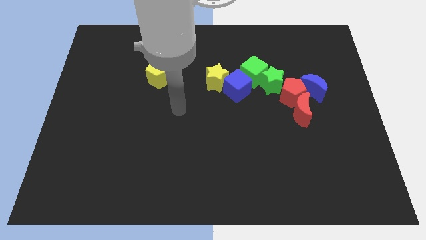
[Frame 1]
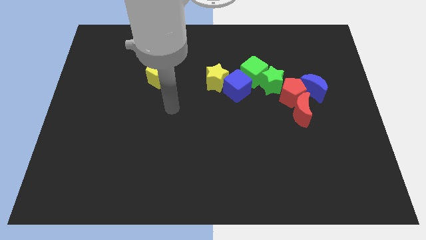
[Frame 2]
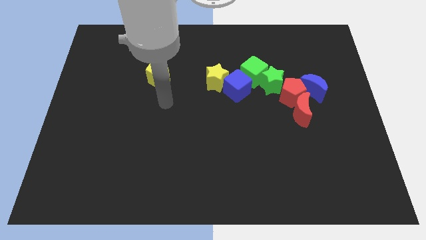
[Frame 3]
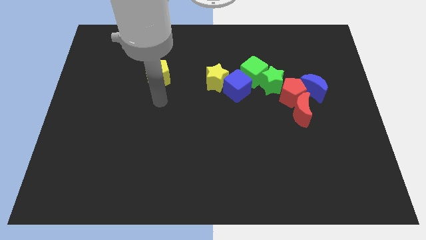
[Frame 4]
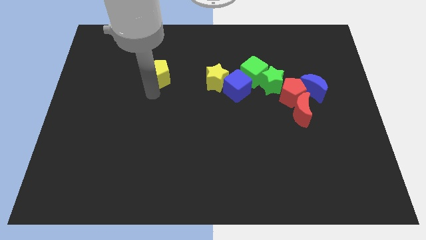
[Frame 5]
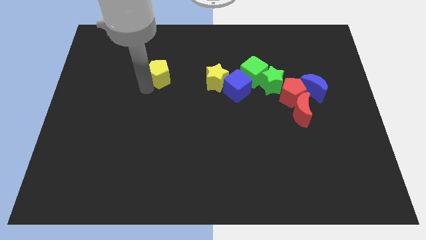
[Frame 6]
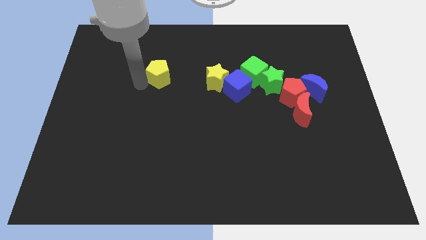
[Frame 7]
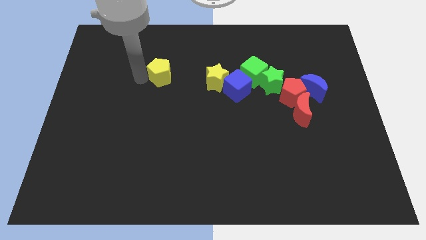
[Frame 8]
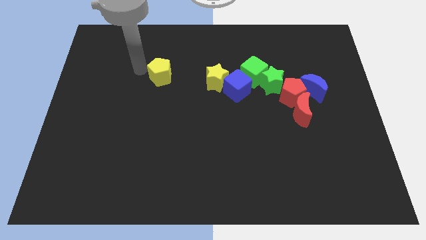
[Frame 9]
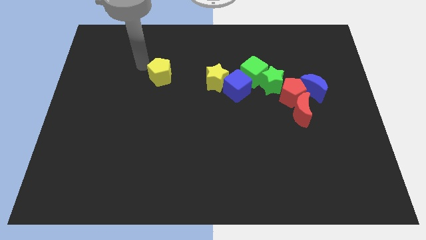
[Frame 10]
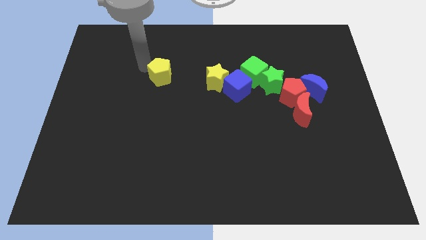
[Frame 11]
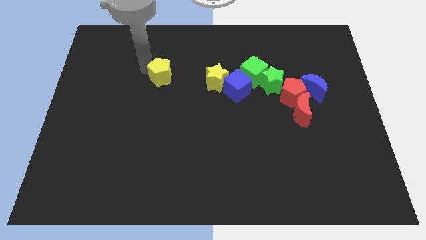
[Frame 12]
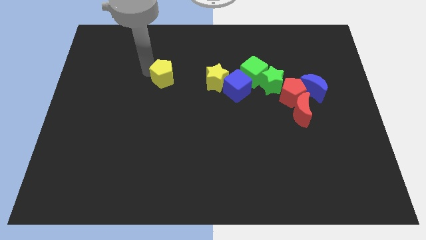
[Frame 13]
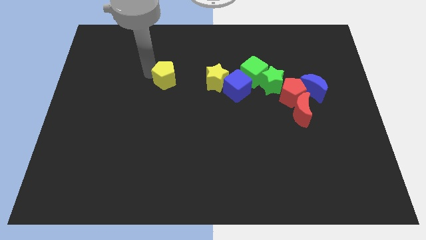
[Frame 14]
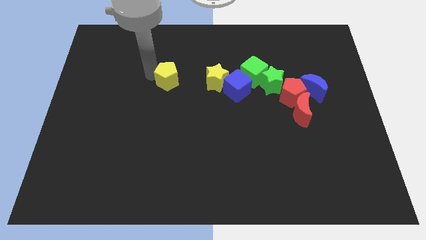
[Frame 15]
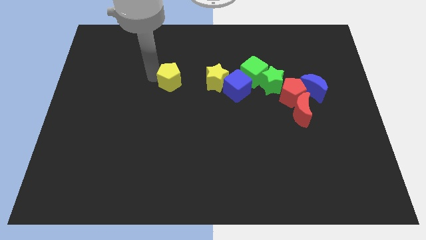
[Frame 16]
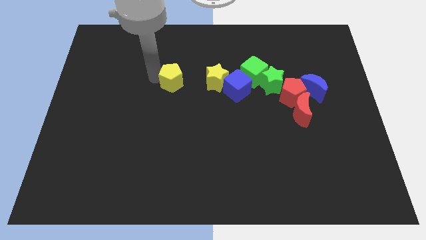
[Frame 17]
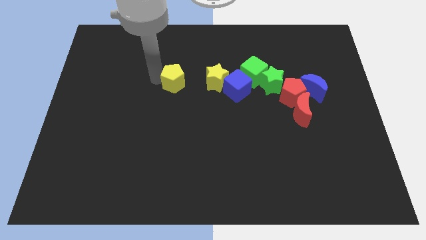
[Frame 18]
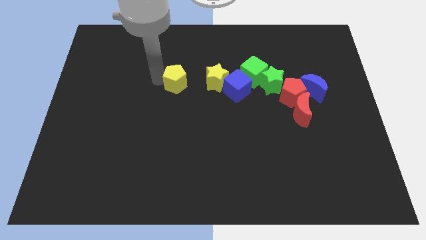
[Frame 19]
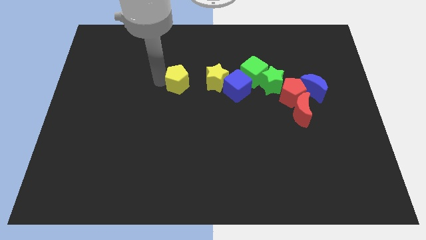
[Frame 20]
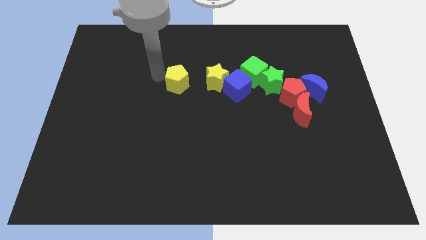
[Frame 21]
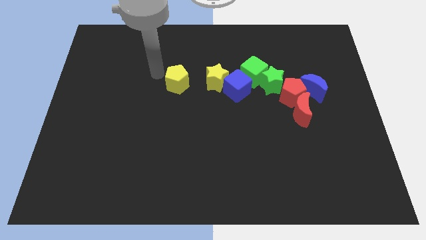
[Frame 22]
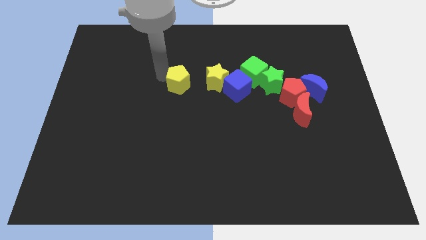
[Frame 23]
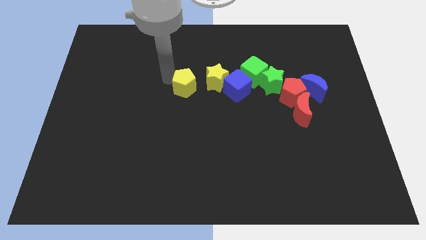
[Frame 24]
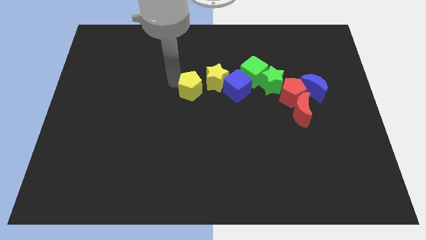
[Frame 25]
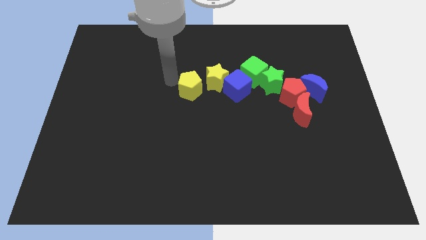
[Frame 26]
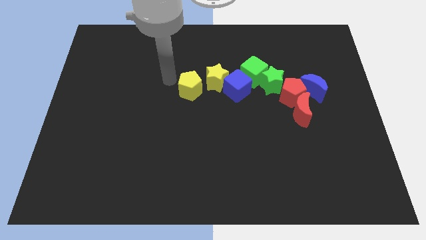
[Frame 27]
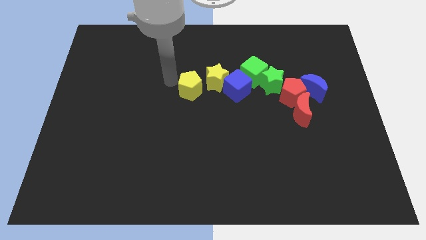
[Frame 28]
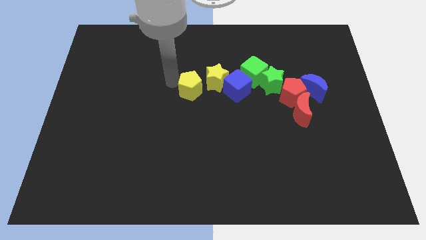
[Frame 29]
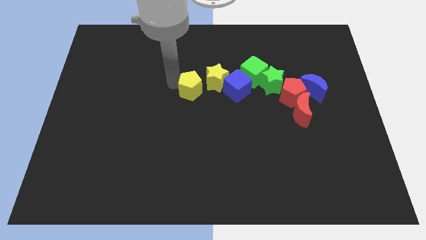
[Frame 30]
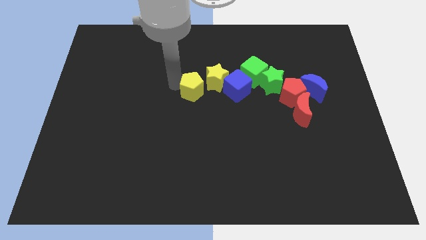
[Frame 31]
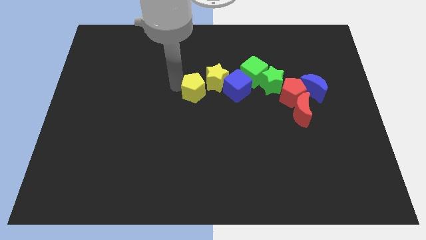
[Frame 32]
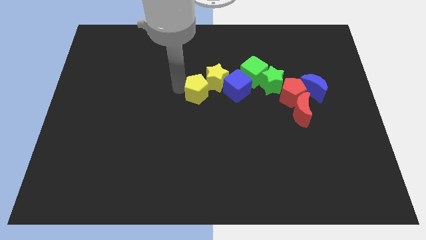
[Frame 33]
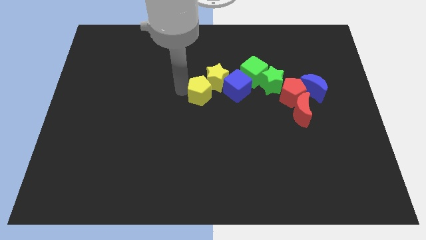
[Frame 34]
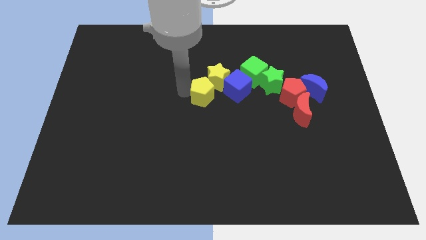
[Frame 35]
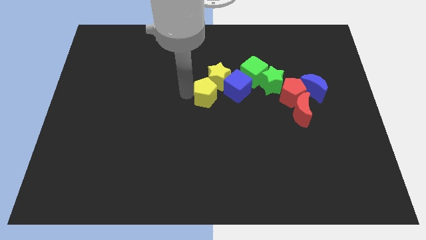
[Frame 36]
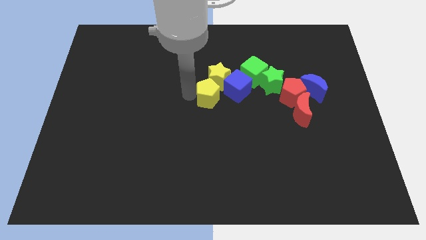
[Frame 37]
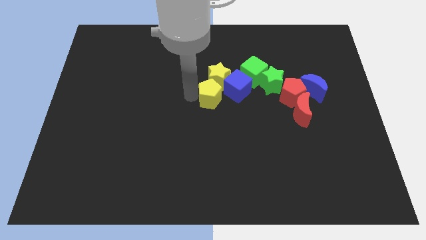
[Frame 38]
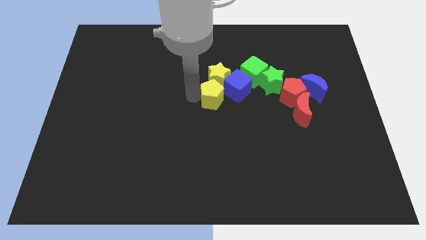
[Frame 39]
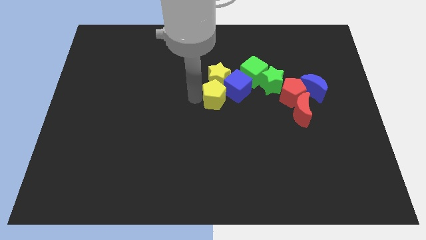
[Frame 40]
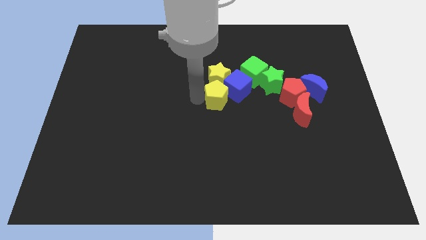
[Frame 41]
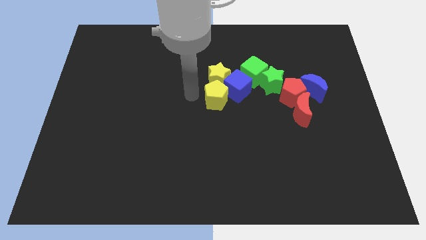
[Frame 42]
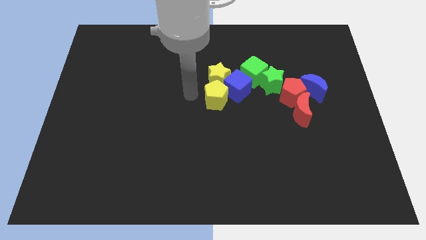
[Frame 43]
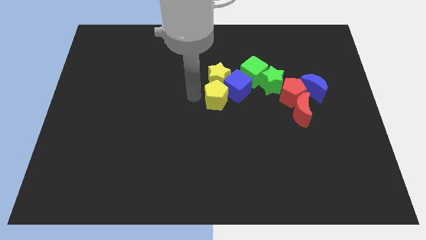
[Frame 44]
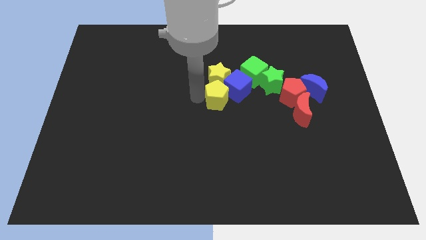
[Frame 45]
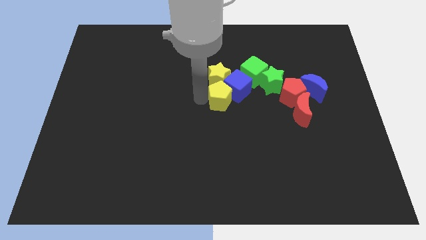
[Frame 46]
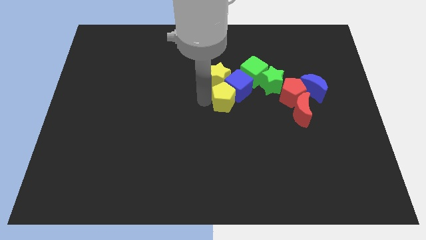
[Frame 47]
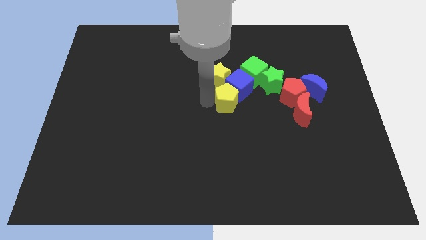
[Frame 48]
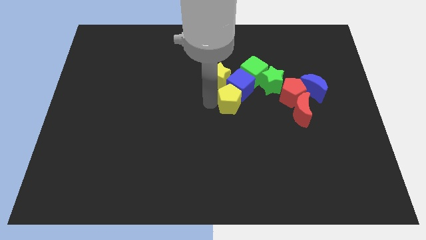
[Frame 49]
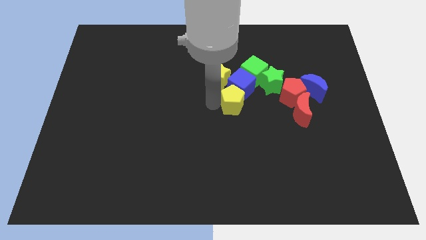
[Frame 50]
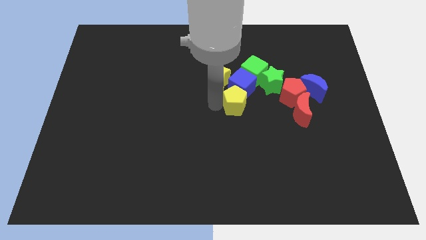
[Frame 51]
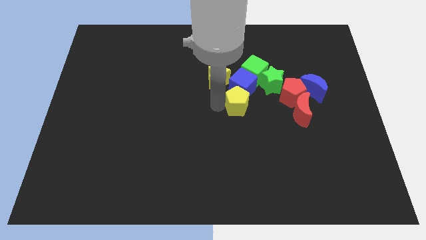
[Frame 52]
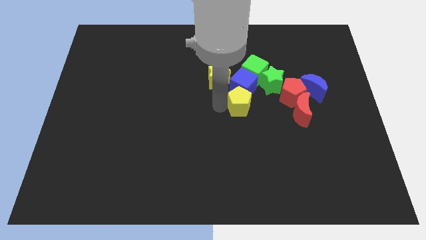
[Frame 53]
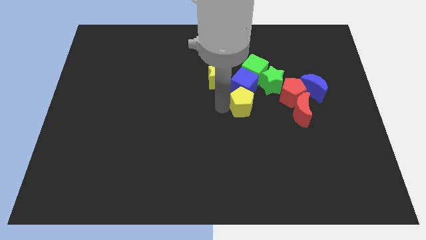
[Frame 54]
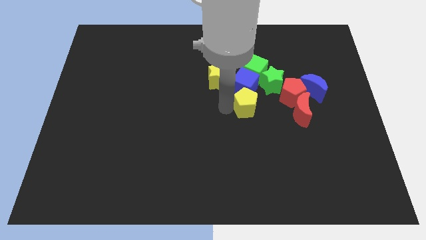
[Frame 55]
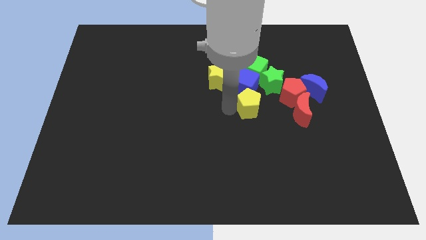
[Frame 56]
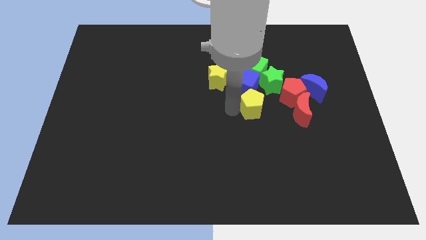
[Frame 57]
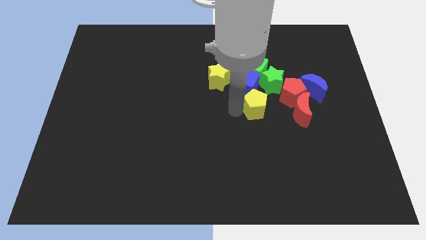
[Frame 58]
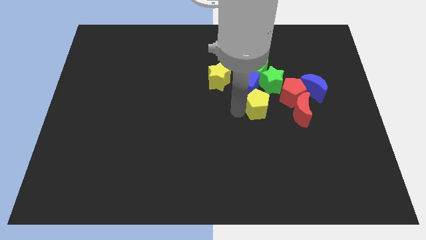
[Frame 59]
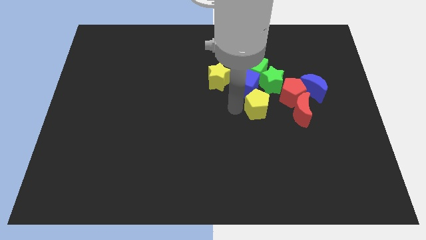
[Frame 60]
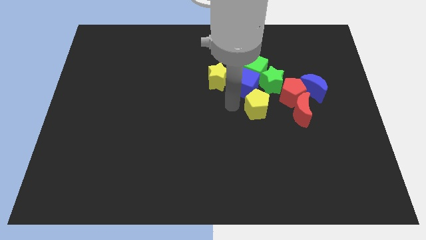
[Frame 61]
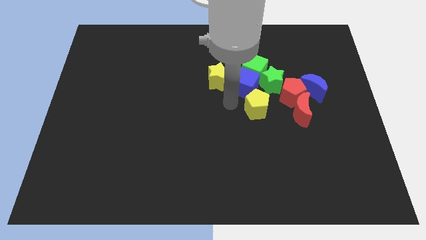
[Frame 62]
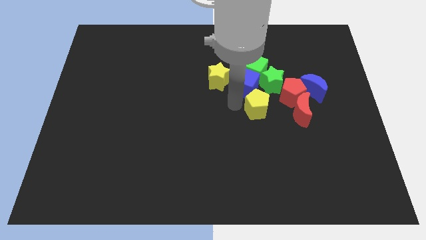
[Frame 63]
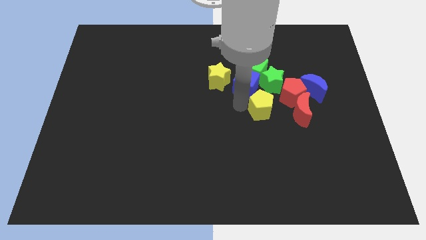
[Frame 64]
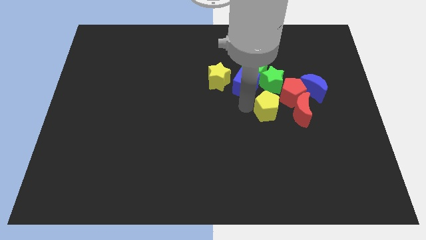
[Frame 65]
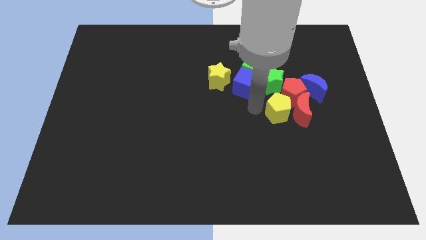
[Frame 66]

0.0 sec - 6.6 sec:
push the yellow pentagon close to the red moon

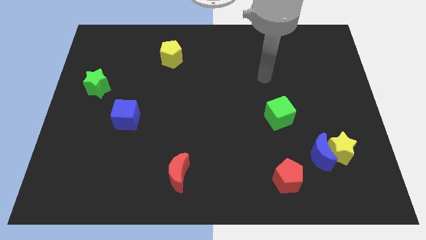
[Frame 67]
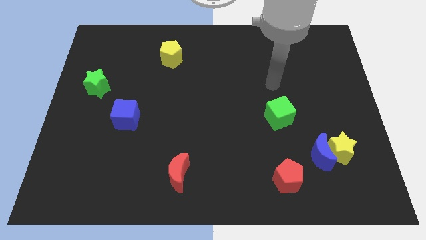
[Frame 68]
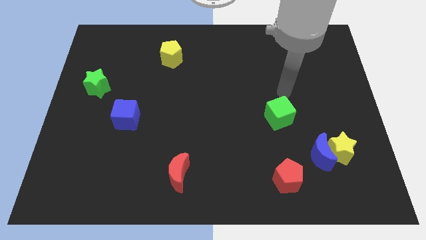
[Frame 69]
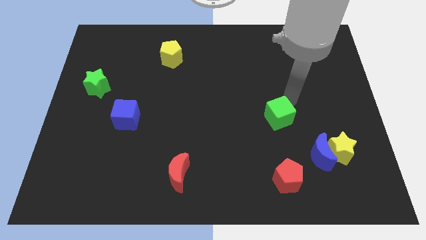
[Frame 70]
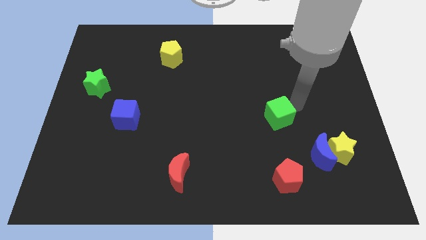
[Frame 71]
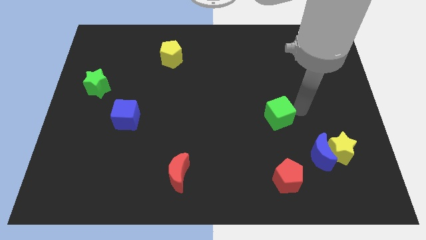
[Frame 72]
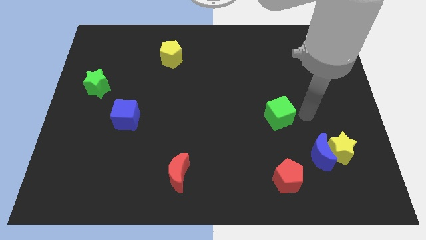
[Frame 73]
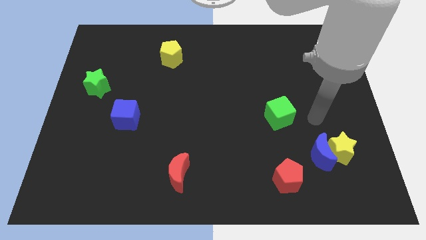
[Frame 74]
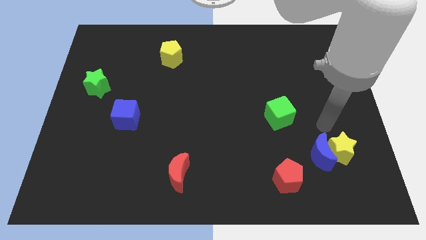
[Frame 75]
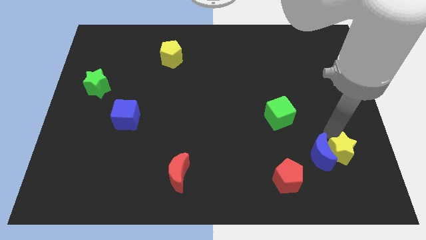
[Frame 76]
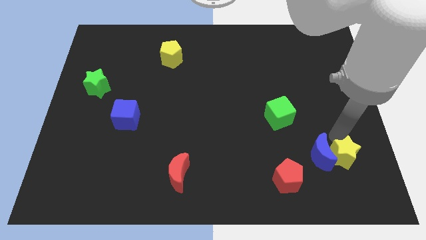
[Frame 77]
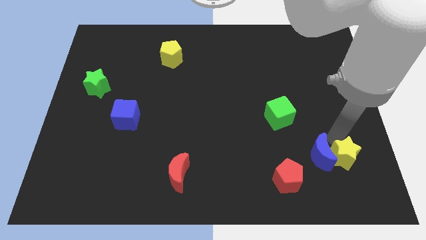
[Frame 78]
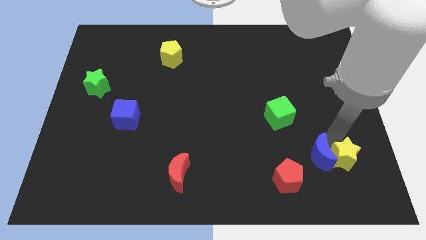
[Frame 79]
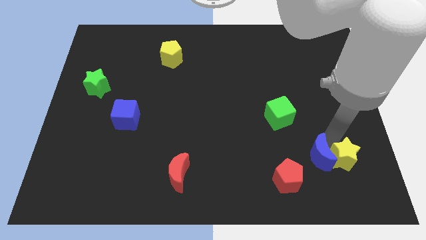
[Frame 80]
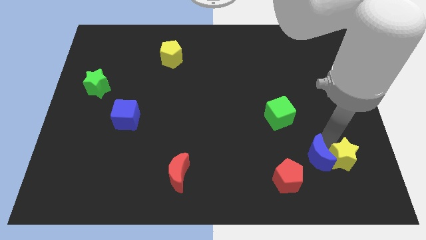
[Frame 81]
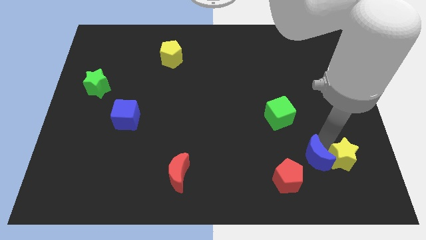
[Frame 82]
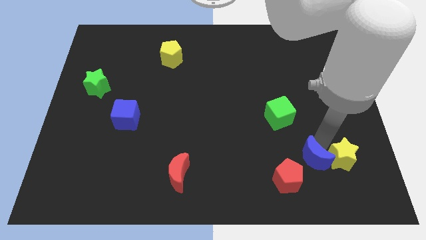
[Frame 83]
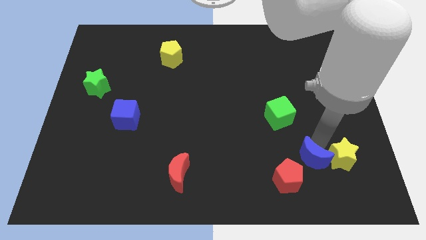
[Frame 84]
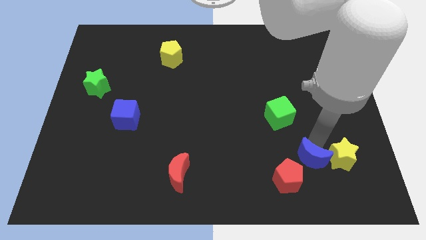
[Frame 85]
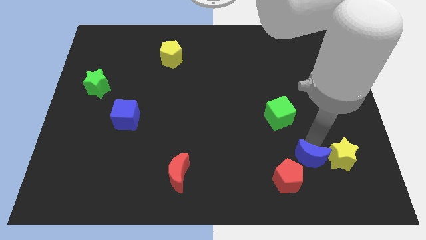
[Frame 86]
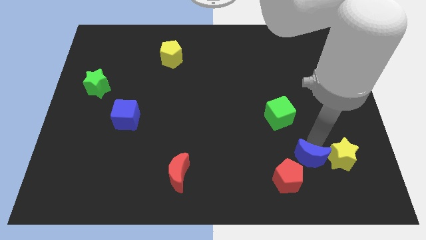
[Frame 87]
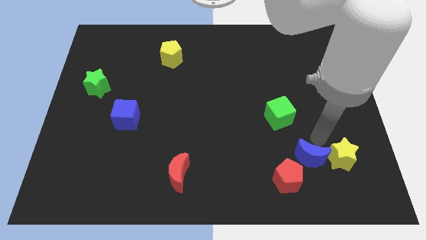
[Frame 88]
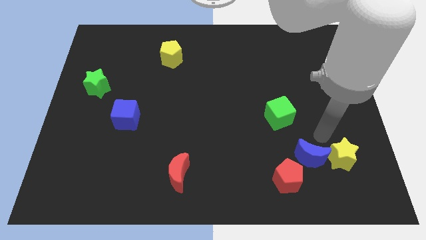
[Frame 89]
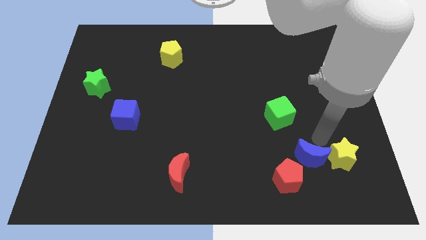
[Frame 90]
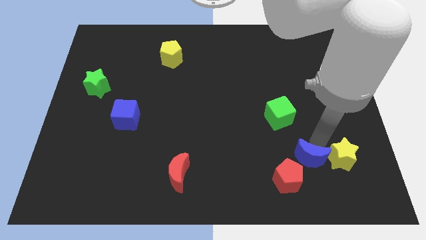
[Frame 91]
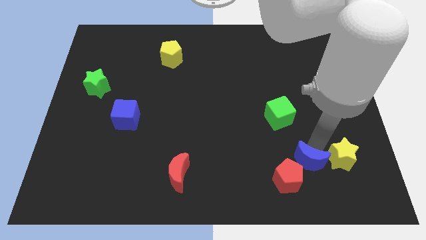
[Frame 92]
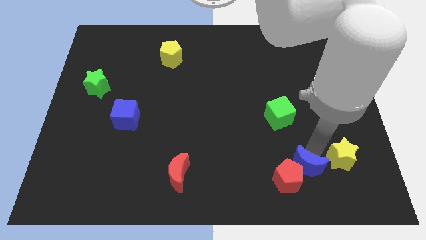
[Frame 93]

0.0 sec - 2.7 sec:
put the blue moon next to the red pentagon
